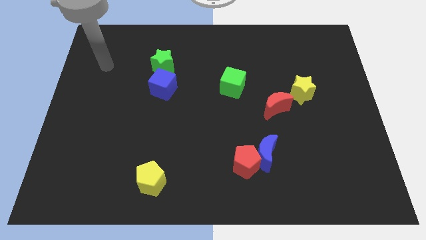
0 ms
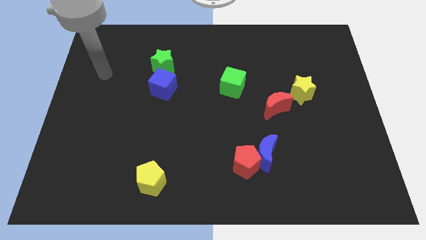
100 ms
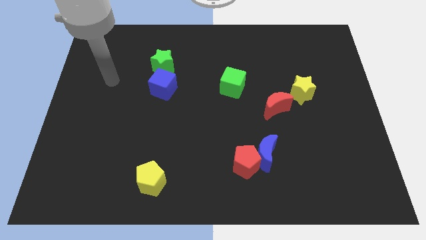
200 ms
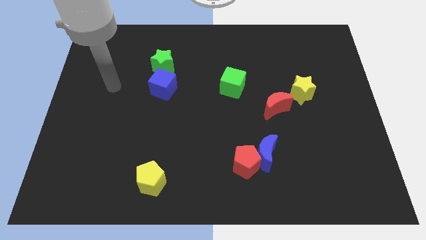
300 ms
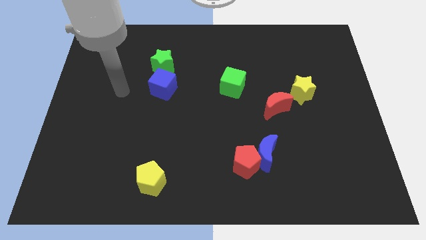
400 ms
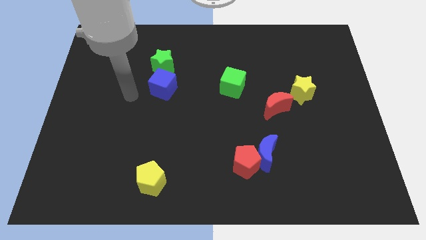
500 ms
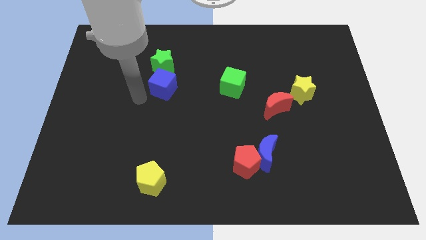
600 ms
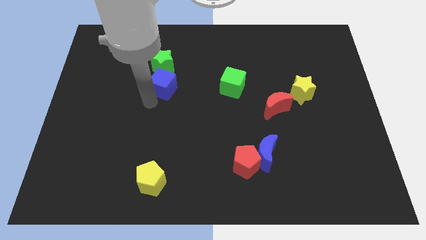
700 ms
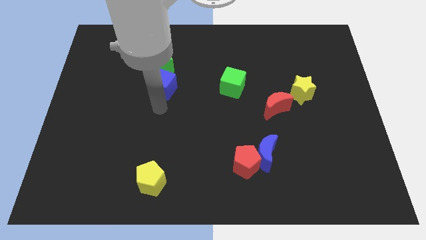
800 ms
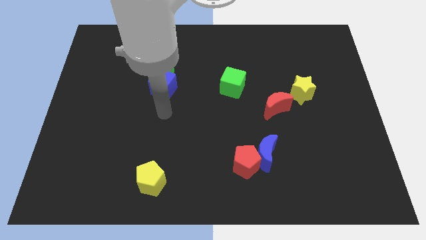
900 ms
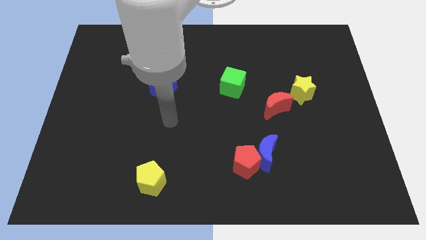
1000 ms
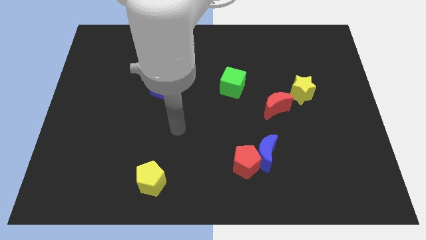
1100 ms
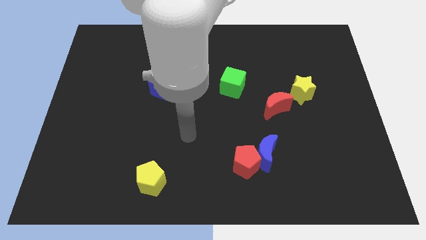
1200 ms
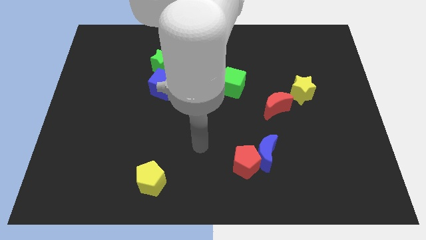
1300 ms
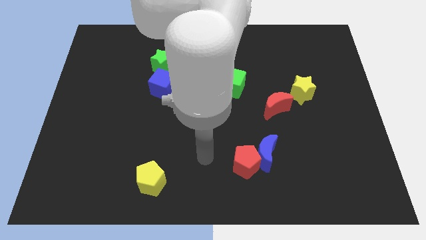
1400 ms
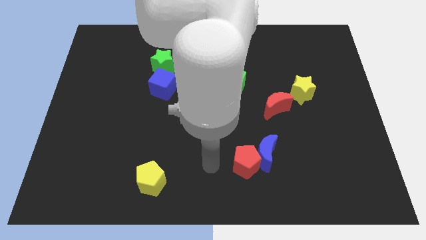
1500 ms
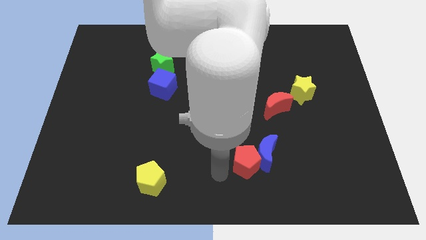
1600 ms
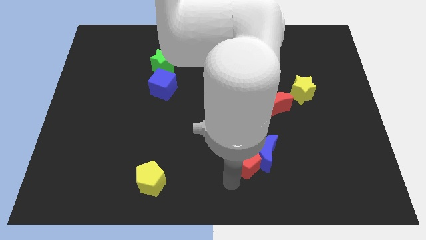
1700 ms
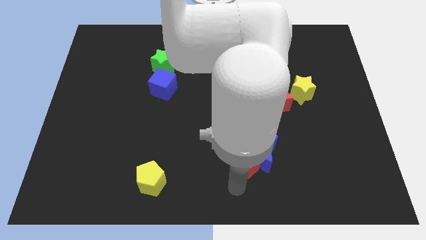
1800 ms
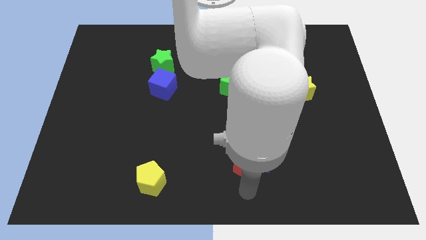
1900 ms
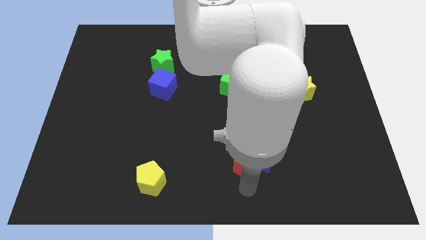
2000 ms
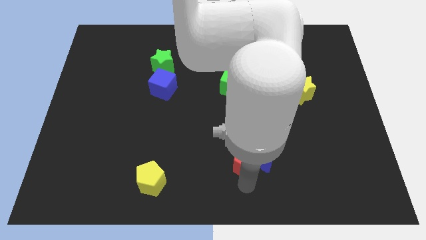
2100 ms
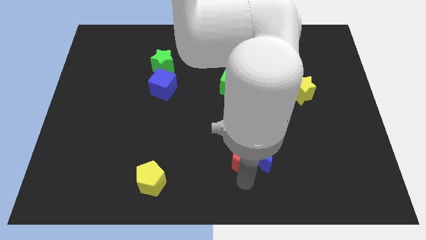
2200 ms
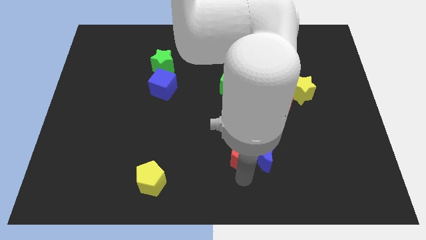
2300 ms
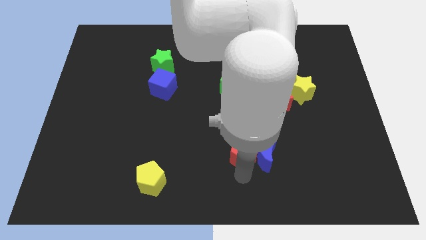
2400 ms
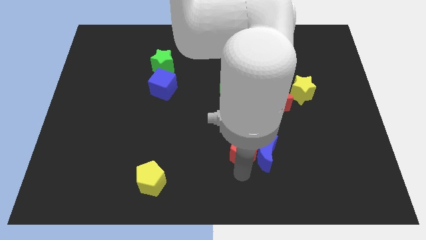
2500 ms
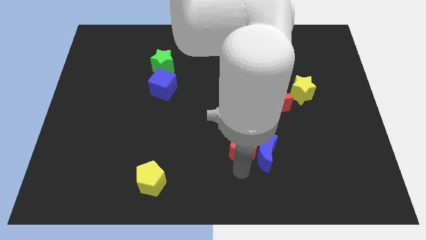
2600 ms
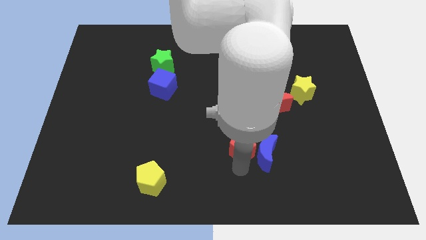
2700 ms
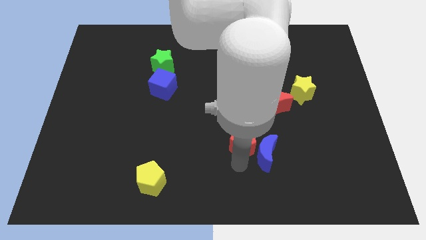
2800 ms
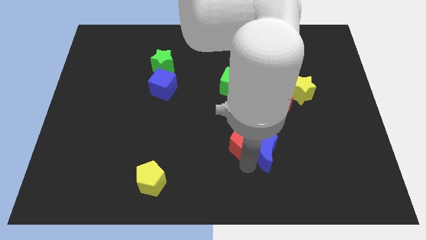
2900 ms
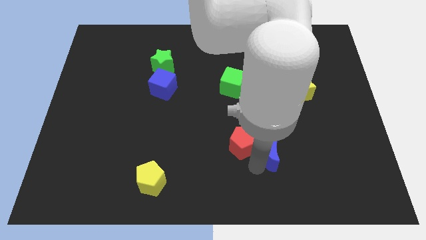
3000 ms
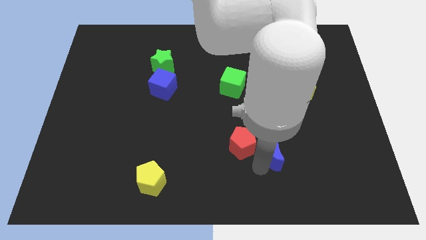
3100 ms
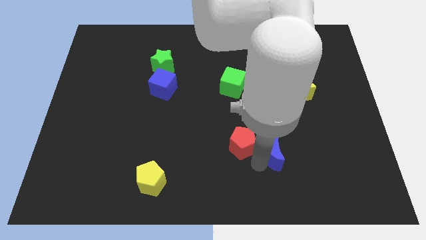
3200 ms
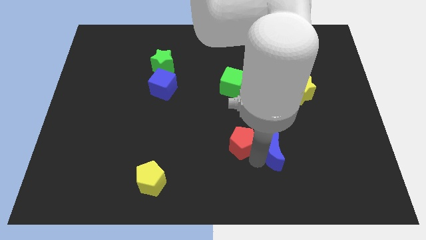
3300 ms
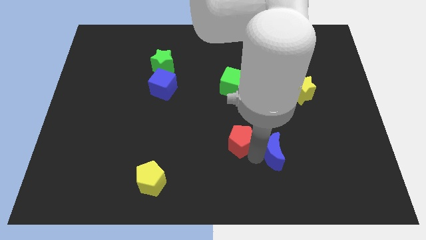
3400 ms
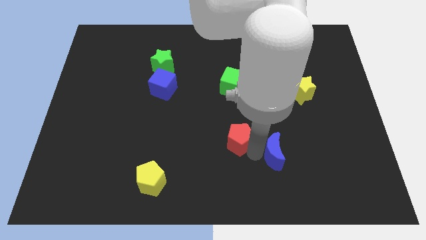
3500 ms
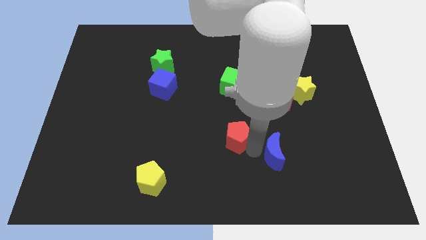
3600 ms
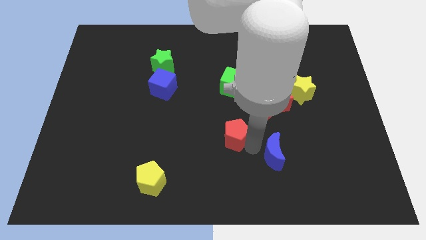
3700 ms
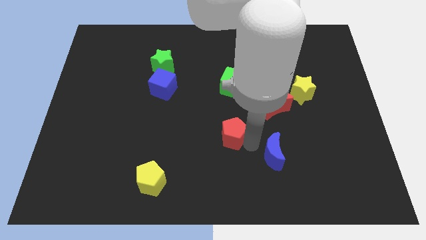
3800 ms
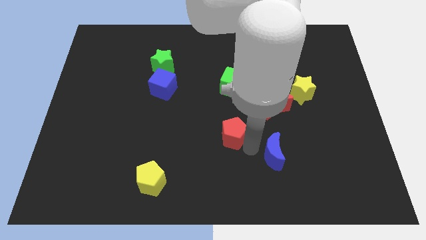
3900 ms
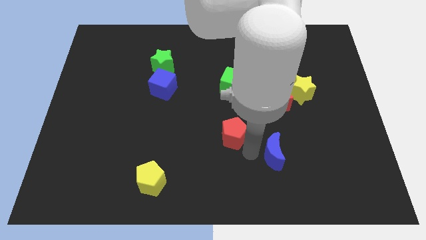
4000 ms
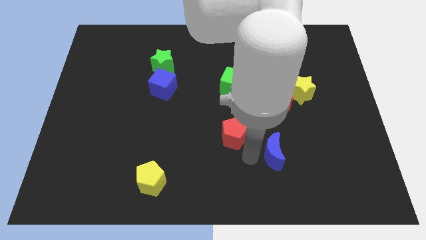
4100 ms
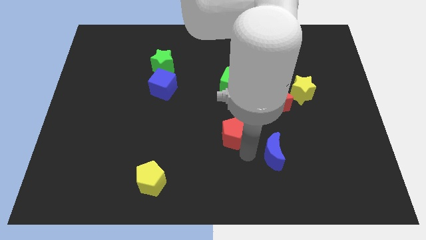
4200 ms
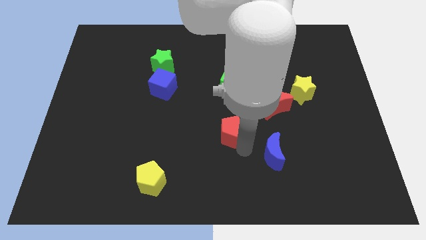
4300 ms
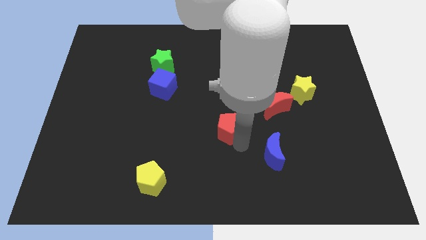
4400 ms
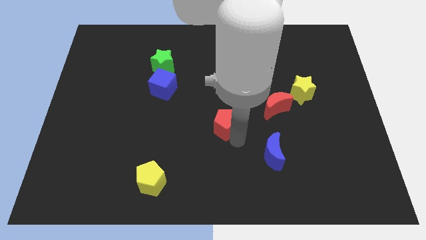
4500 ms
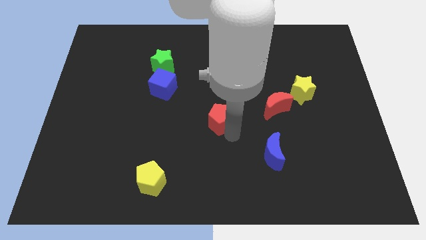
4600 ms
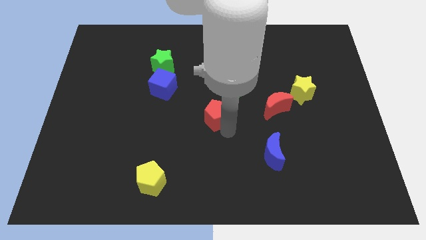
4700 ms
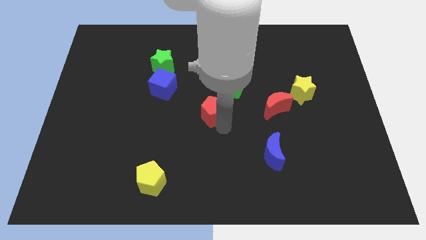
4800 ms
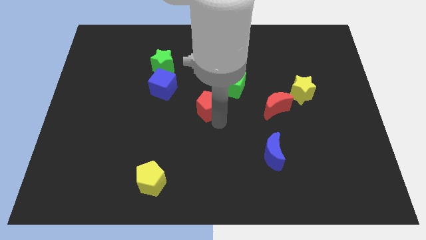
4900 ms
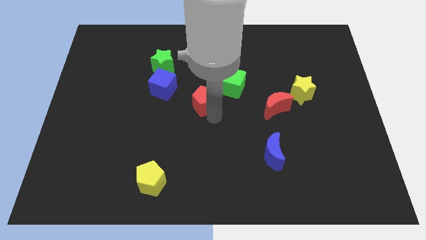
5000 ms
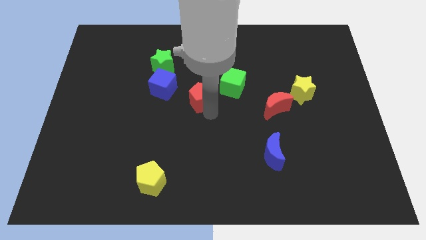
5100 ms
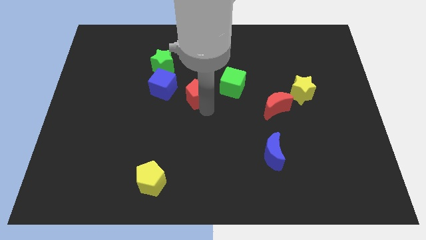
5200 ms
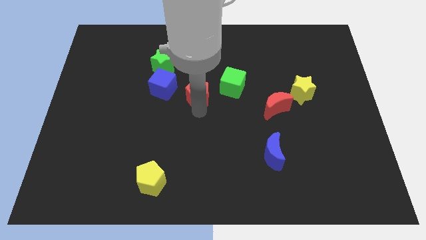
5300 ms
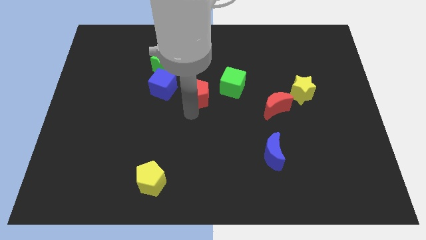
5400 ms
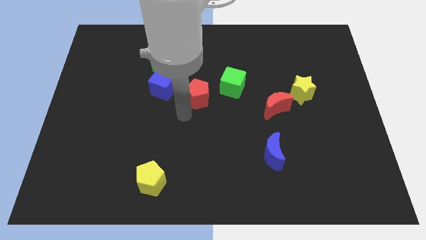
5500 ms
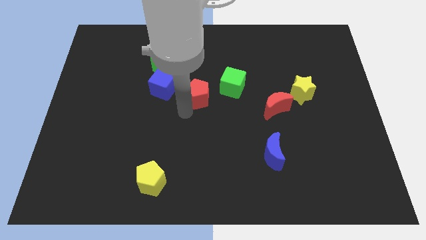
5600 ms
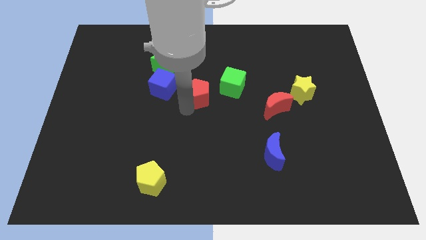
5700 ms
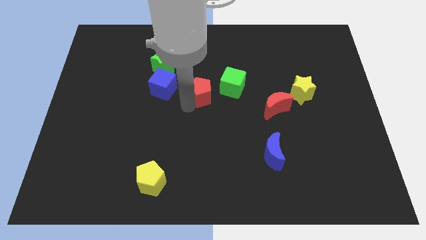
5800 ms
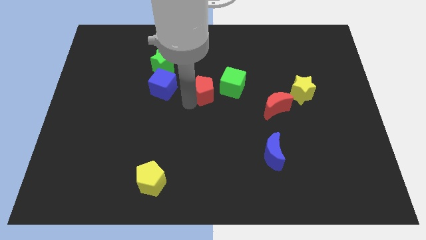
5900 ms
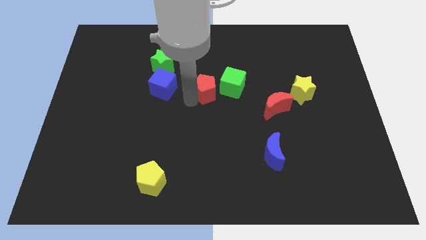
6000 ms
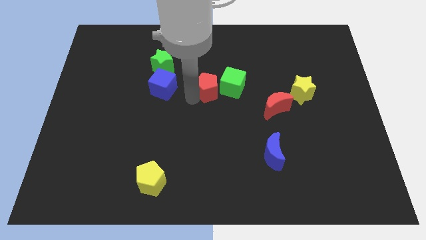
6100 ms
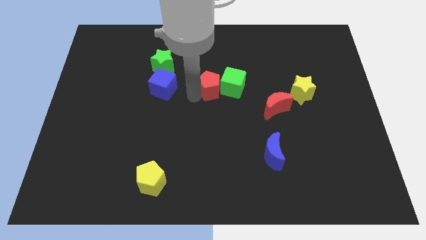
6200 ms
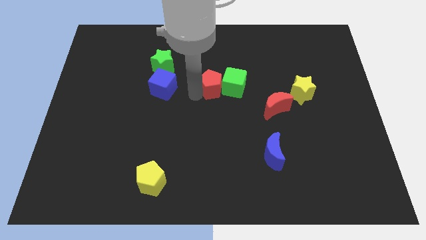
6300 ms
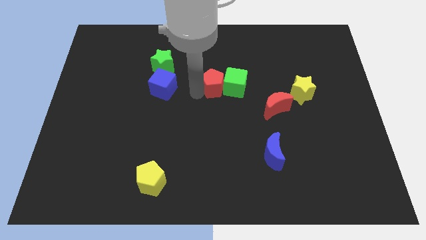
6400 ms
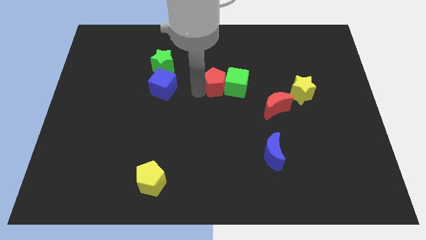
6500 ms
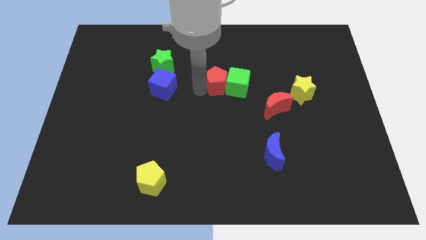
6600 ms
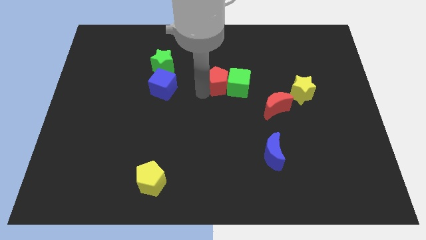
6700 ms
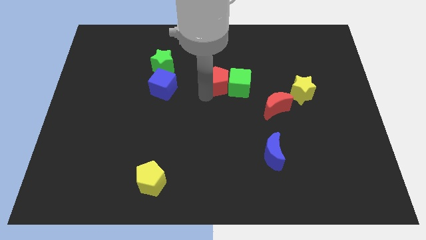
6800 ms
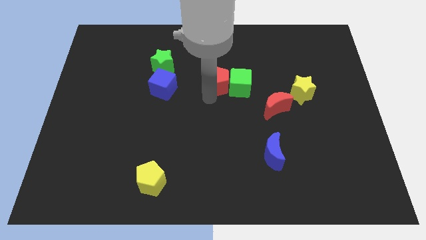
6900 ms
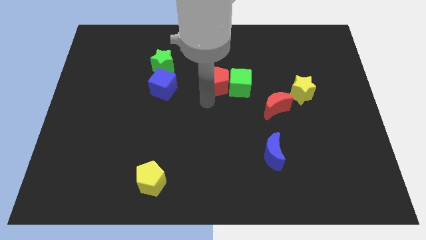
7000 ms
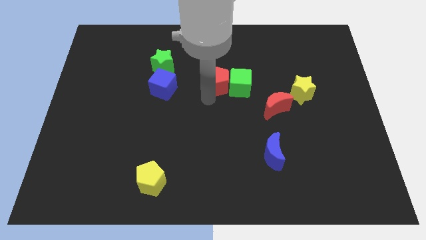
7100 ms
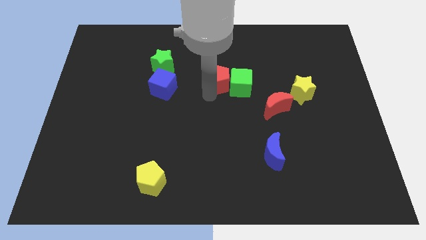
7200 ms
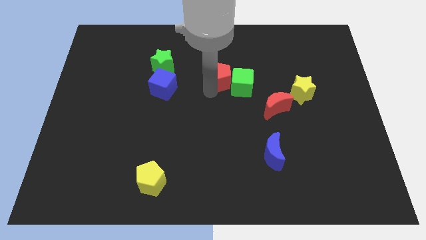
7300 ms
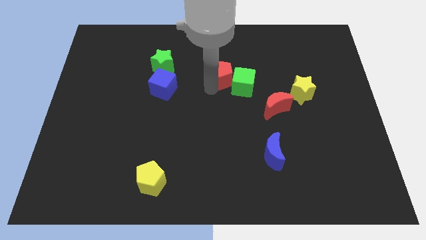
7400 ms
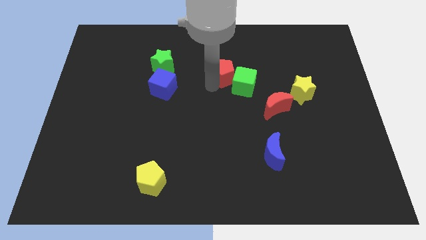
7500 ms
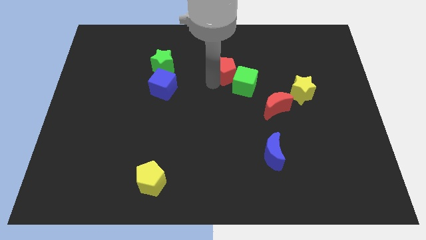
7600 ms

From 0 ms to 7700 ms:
push the red pentagon to the top side of the green cube

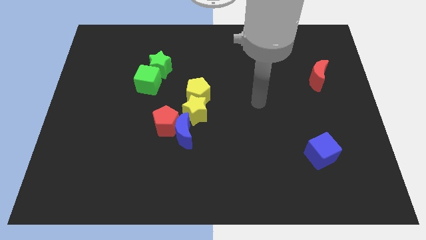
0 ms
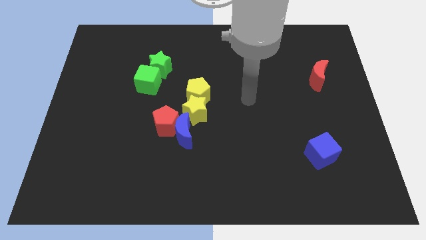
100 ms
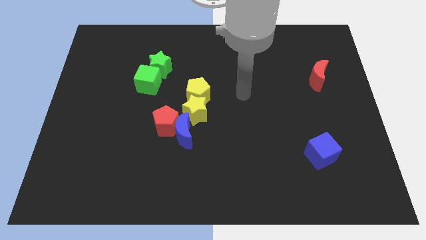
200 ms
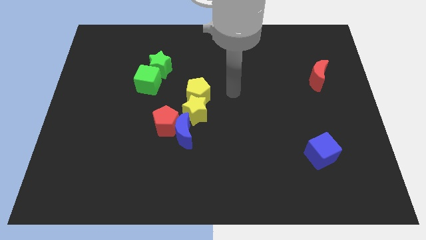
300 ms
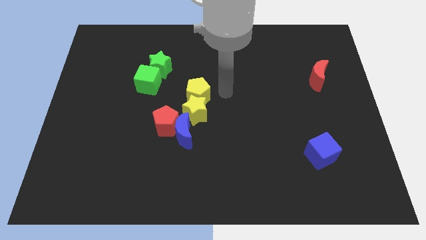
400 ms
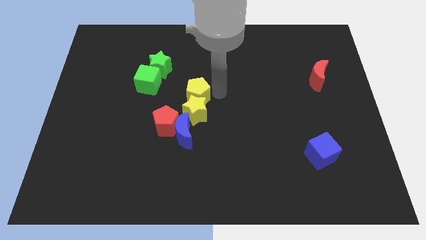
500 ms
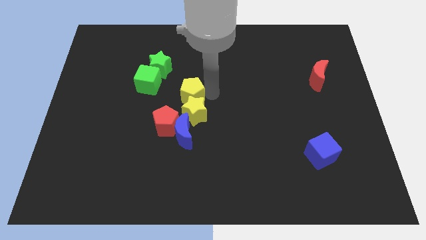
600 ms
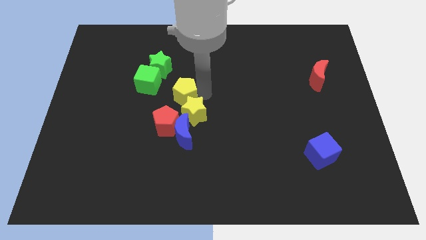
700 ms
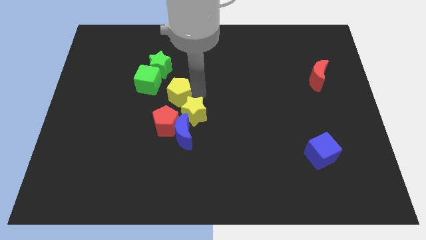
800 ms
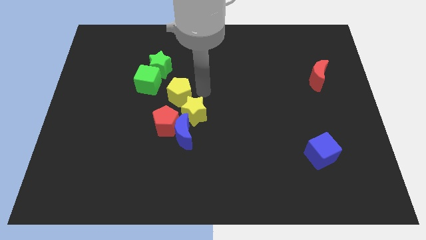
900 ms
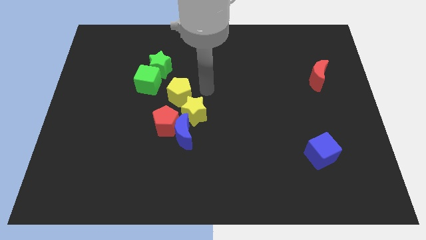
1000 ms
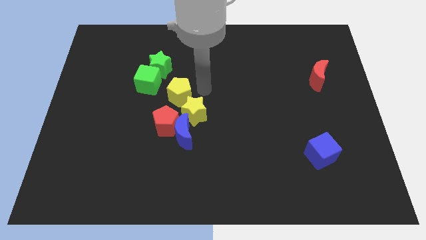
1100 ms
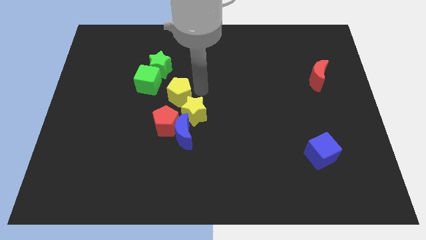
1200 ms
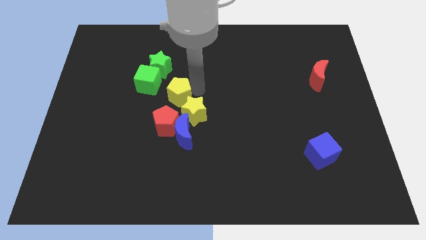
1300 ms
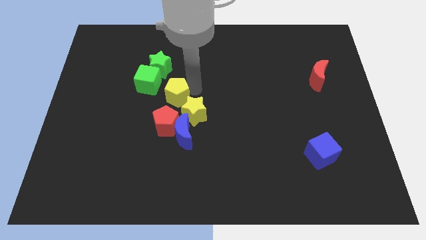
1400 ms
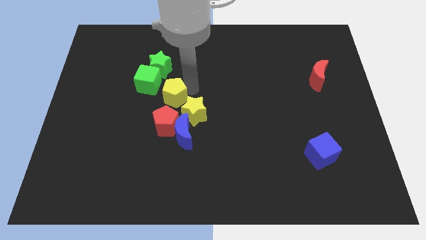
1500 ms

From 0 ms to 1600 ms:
slide the yellow pentagon below the green star
